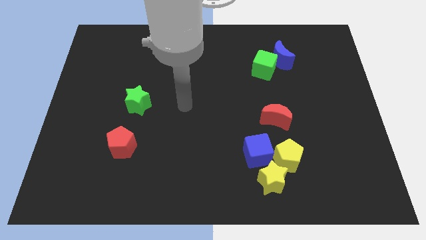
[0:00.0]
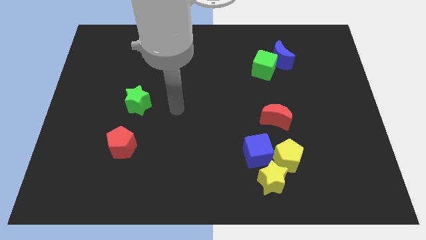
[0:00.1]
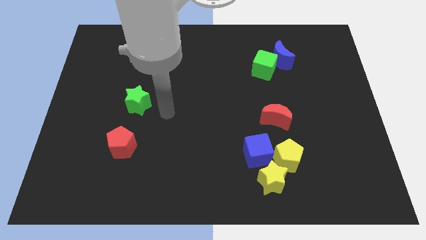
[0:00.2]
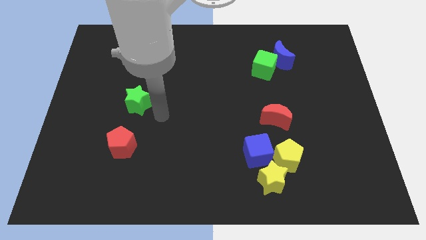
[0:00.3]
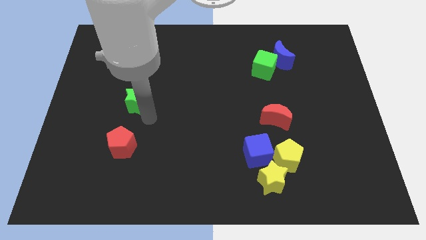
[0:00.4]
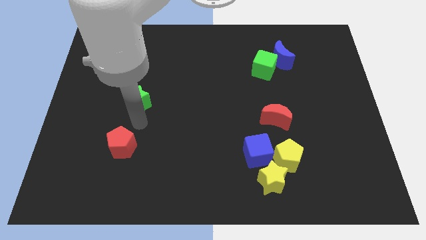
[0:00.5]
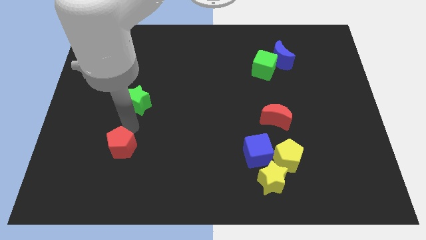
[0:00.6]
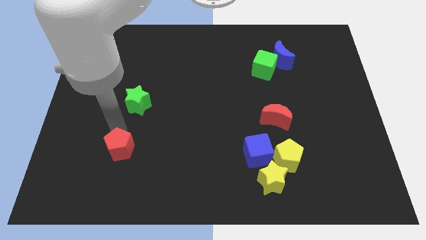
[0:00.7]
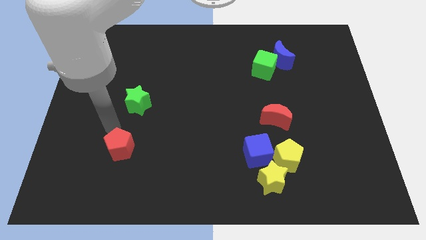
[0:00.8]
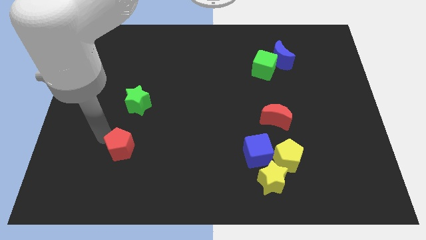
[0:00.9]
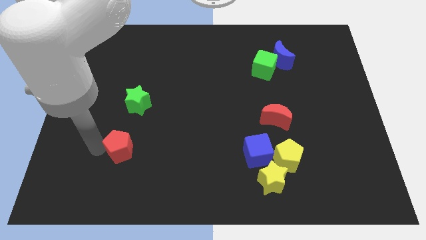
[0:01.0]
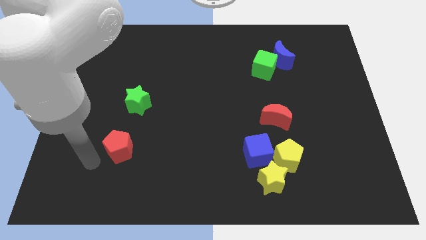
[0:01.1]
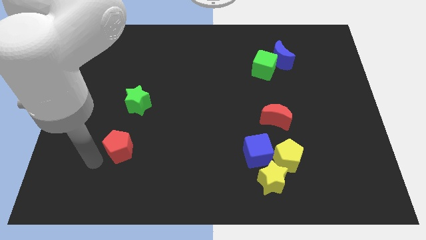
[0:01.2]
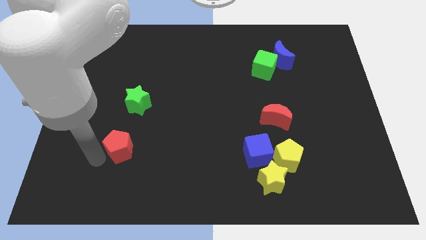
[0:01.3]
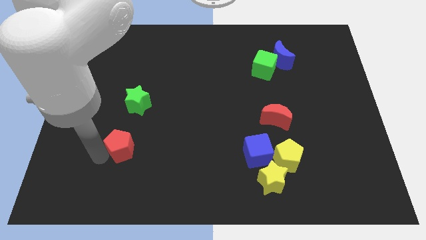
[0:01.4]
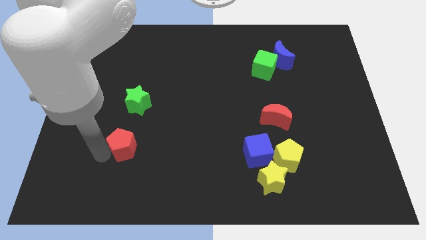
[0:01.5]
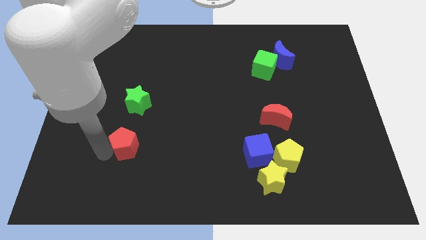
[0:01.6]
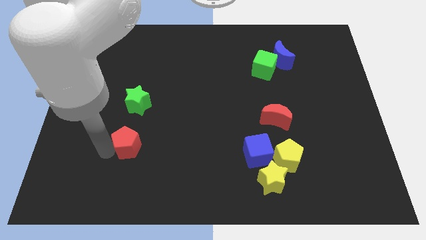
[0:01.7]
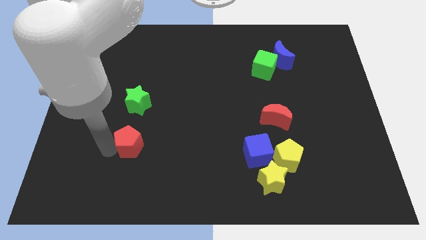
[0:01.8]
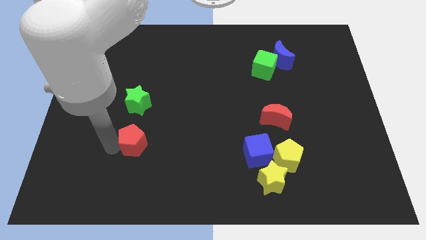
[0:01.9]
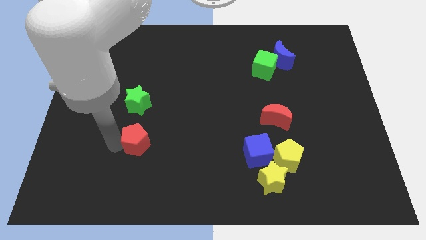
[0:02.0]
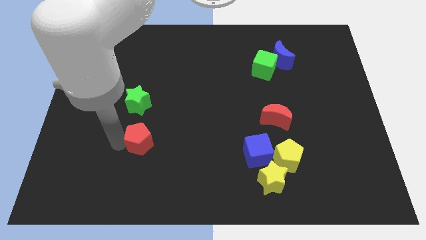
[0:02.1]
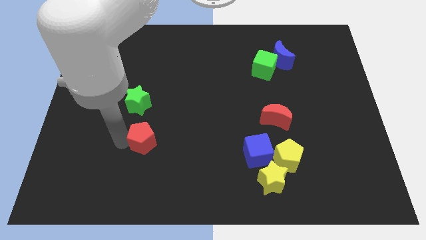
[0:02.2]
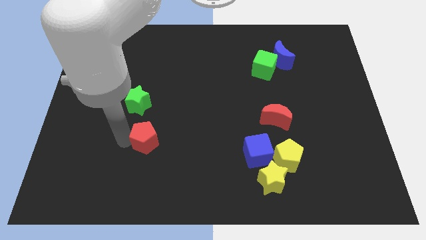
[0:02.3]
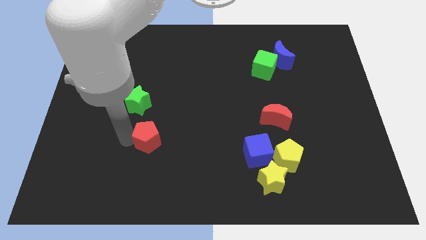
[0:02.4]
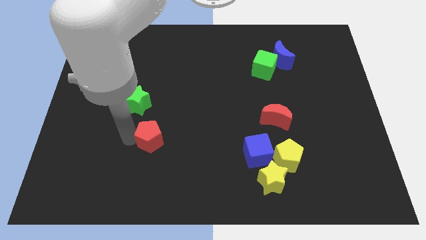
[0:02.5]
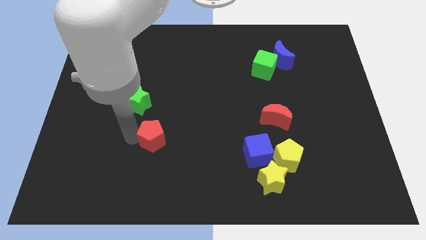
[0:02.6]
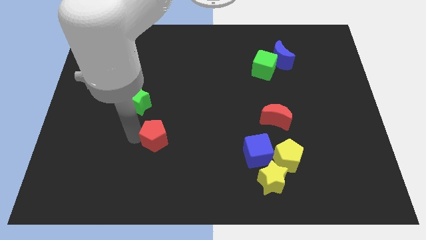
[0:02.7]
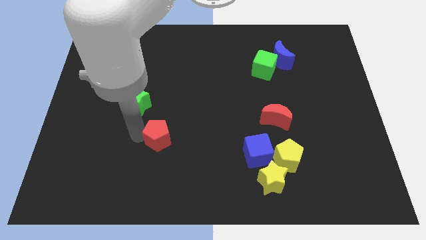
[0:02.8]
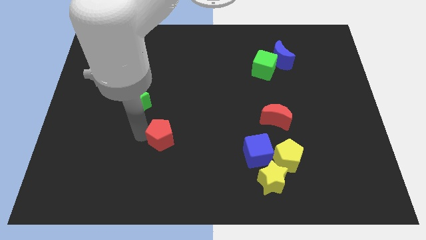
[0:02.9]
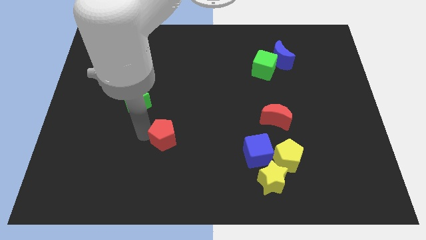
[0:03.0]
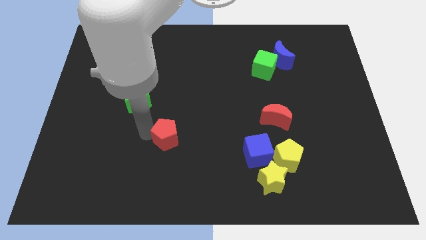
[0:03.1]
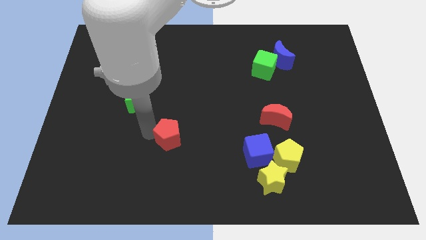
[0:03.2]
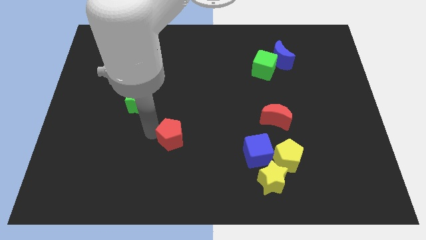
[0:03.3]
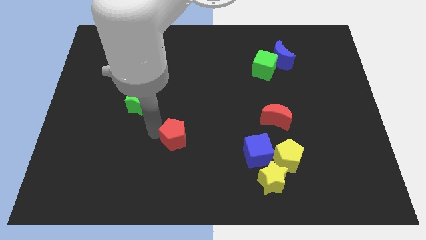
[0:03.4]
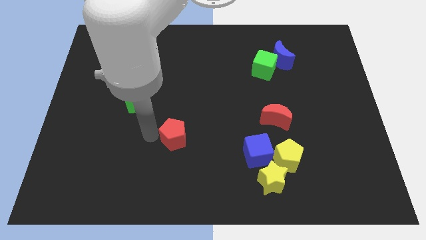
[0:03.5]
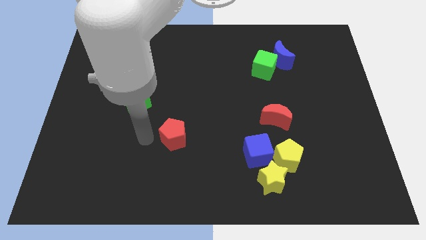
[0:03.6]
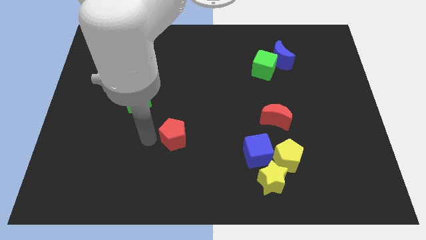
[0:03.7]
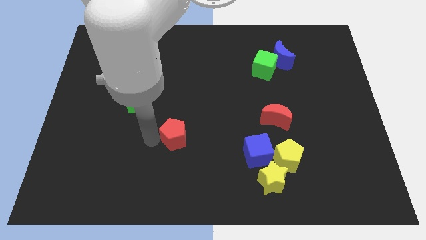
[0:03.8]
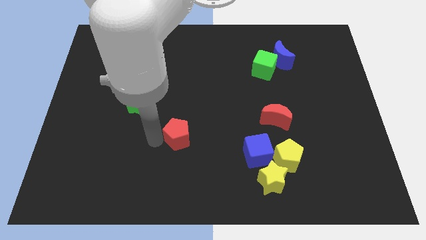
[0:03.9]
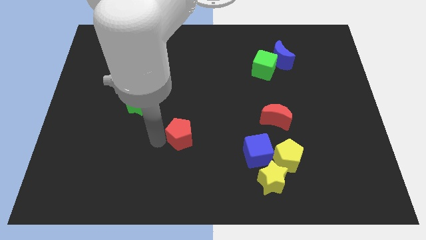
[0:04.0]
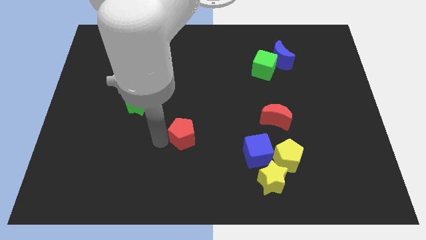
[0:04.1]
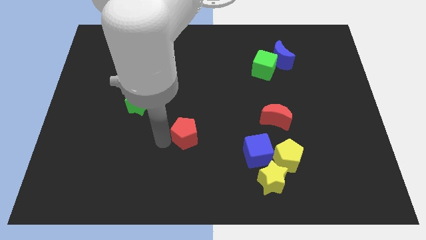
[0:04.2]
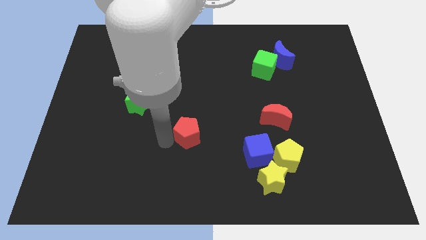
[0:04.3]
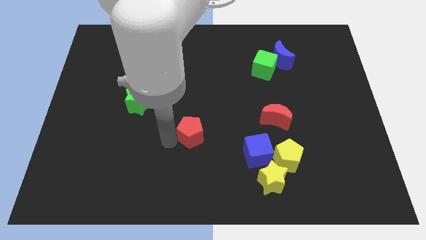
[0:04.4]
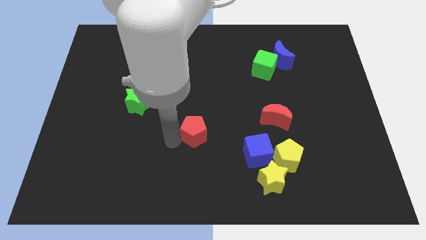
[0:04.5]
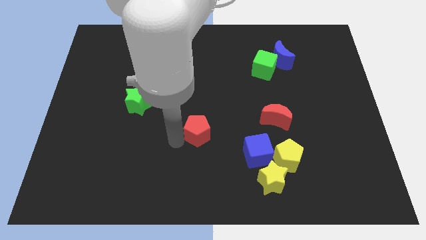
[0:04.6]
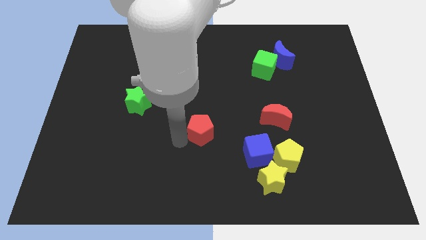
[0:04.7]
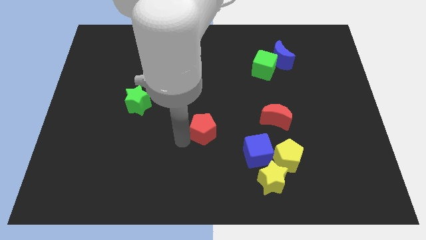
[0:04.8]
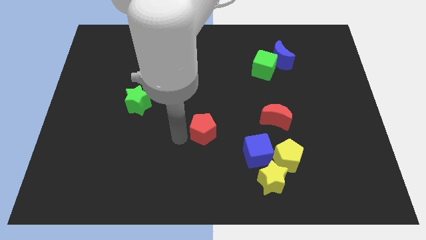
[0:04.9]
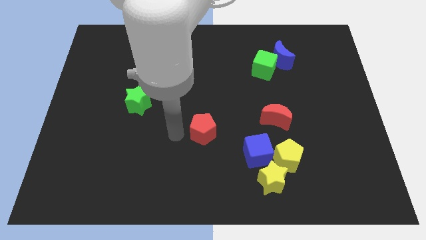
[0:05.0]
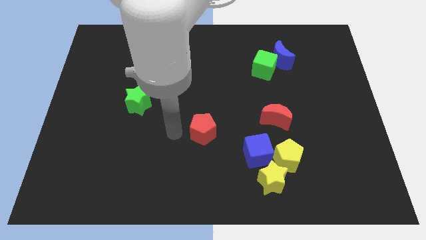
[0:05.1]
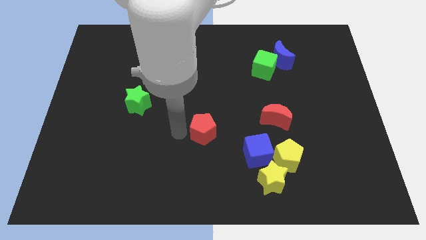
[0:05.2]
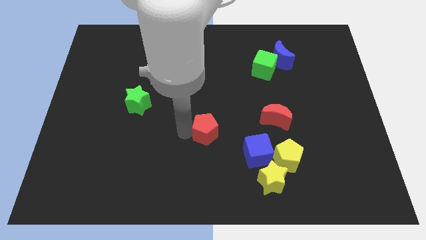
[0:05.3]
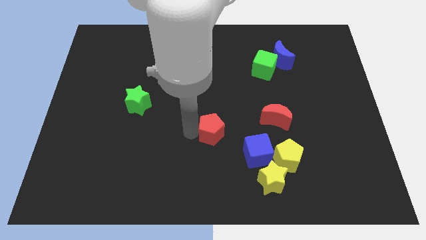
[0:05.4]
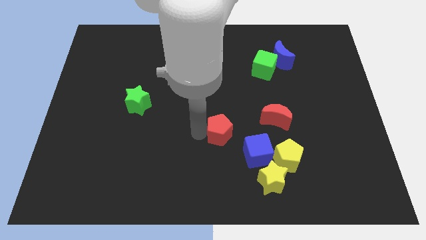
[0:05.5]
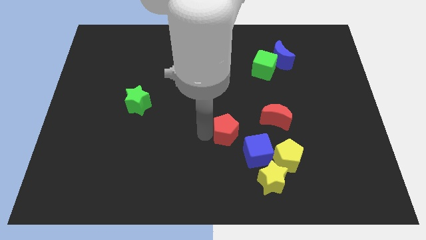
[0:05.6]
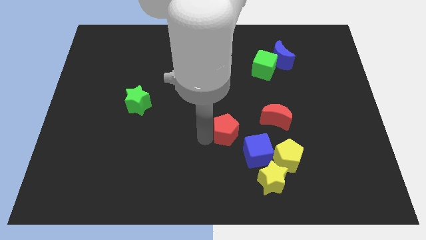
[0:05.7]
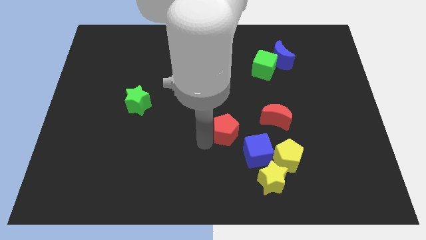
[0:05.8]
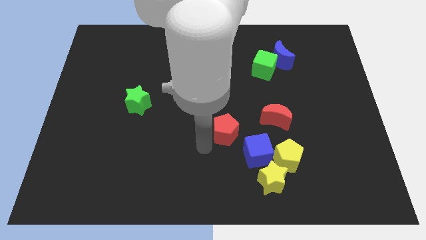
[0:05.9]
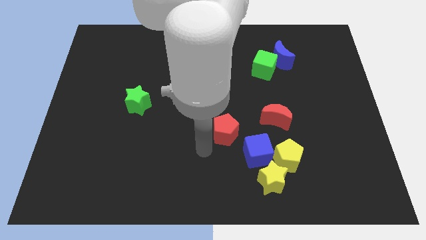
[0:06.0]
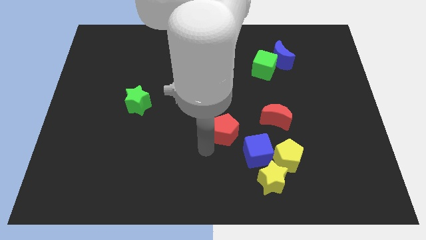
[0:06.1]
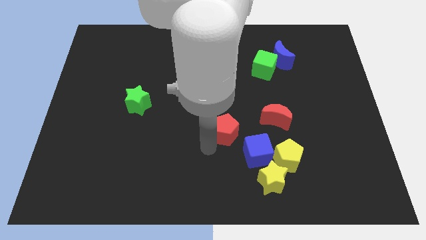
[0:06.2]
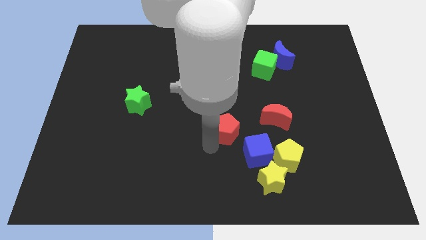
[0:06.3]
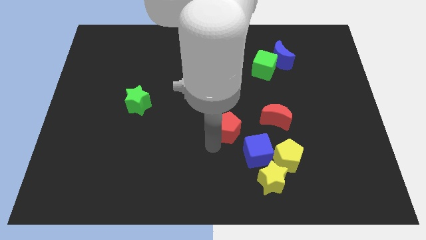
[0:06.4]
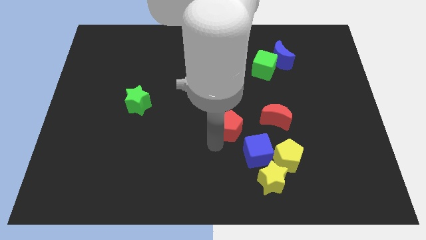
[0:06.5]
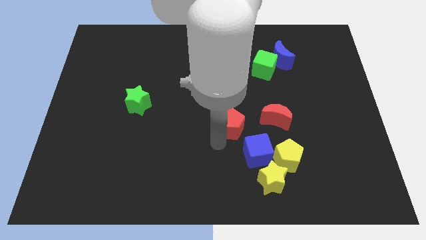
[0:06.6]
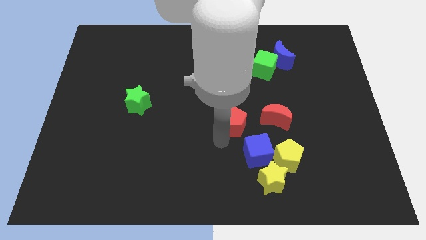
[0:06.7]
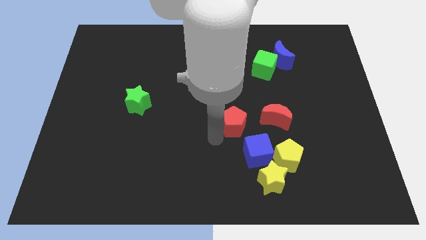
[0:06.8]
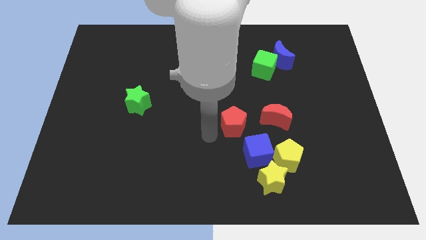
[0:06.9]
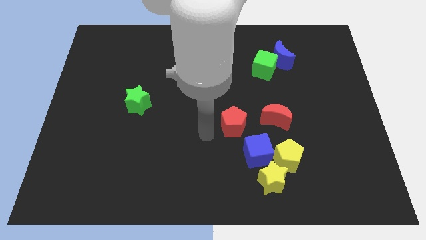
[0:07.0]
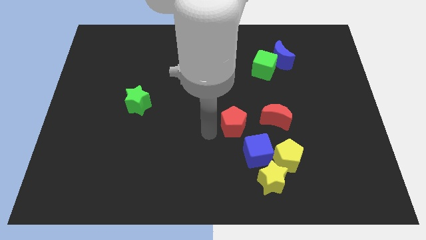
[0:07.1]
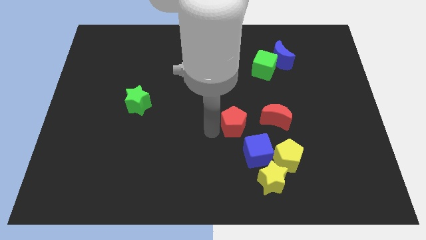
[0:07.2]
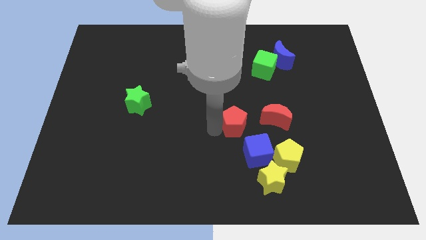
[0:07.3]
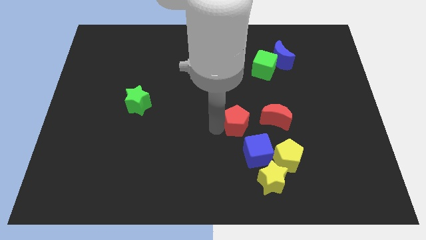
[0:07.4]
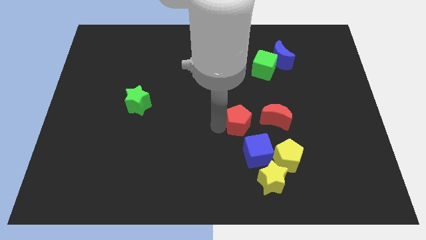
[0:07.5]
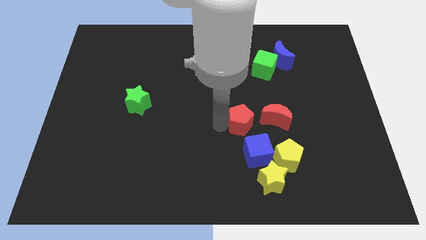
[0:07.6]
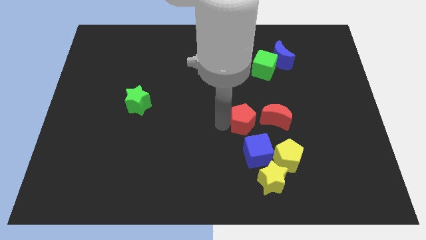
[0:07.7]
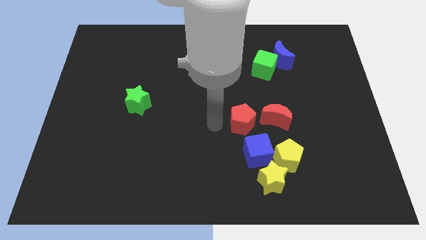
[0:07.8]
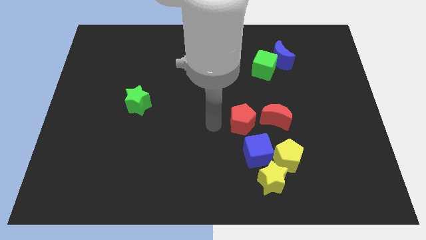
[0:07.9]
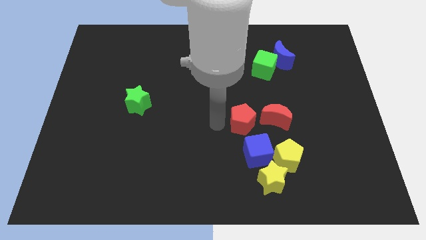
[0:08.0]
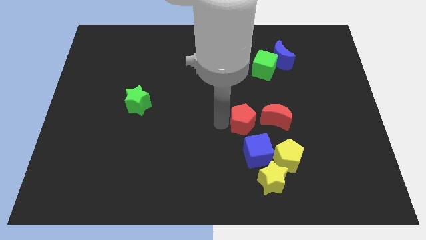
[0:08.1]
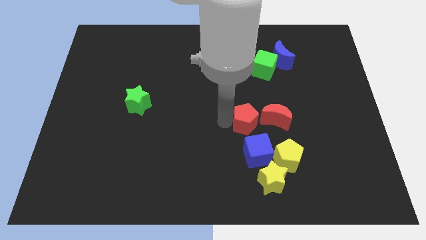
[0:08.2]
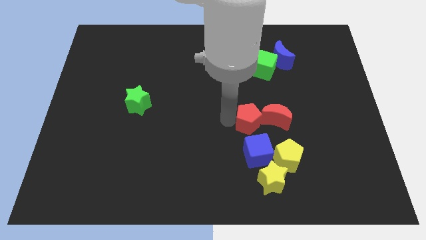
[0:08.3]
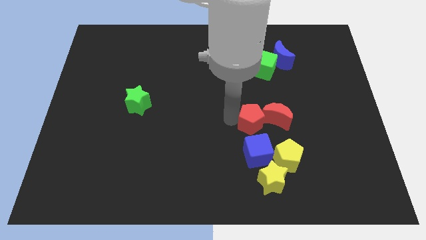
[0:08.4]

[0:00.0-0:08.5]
move the red pentagon next to the red moon
